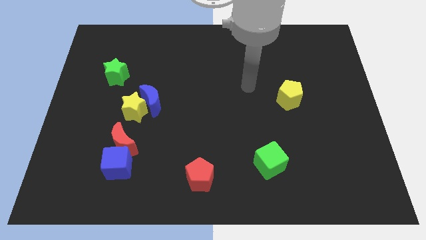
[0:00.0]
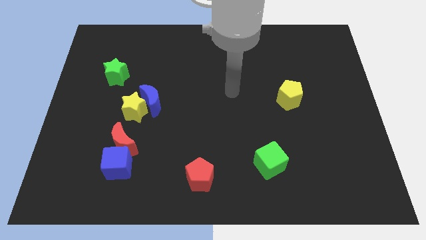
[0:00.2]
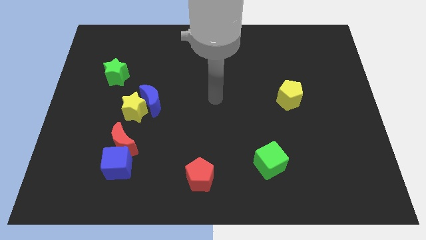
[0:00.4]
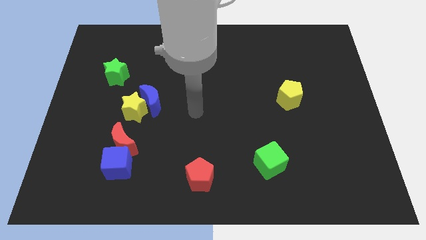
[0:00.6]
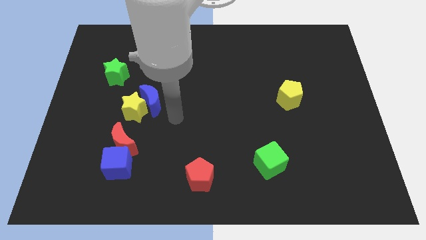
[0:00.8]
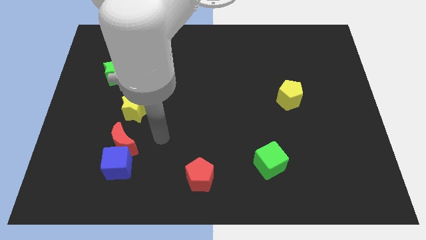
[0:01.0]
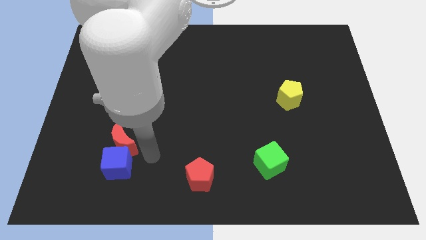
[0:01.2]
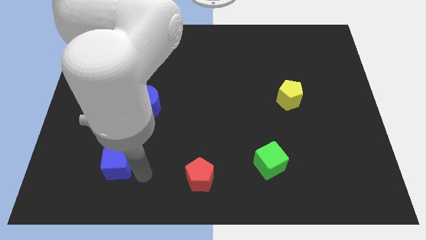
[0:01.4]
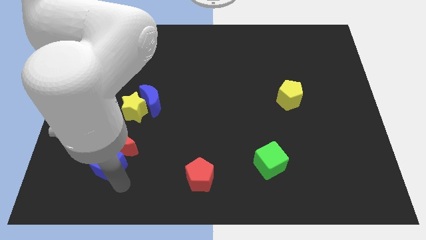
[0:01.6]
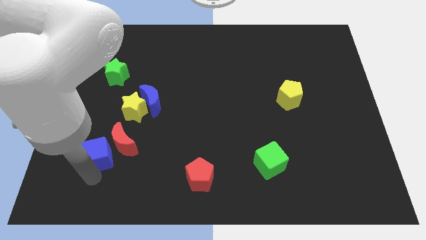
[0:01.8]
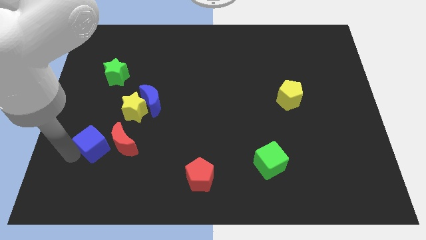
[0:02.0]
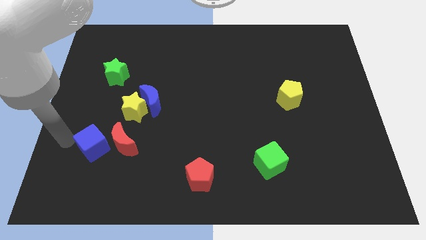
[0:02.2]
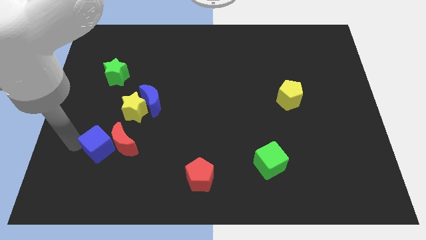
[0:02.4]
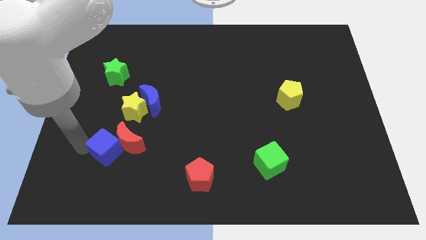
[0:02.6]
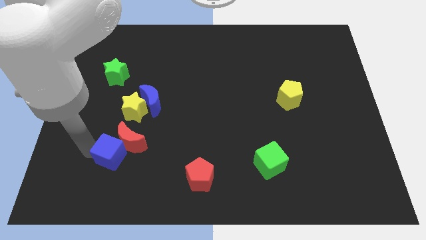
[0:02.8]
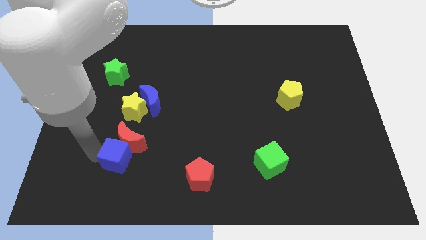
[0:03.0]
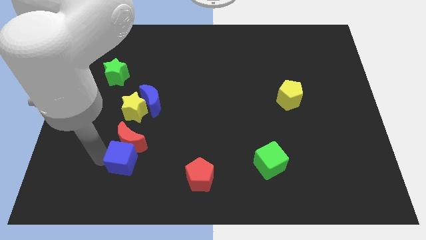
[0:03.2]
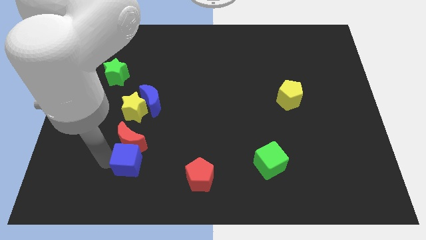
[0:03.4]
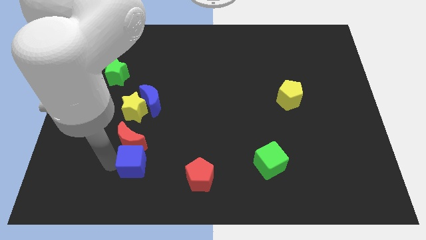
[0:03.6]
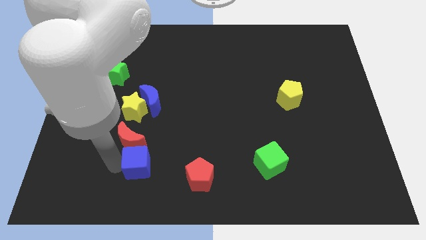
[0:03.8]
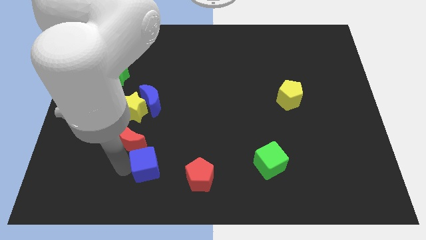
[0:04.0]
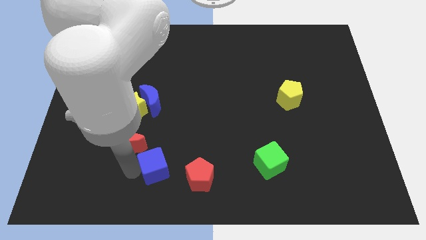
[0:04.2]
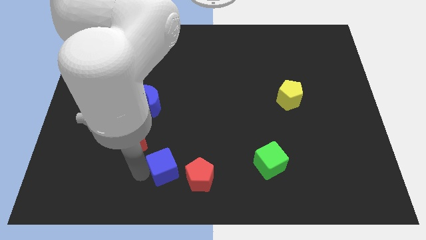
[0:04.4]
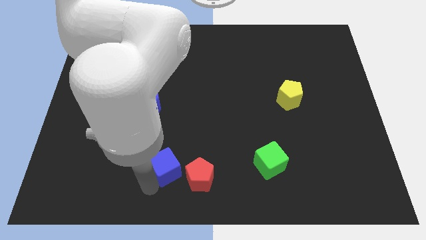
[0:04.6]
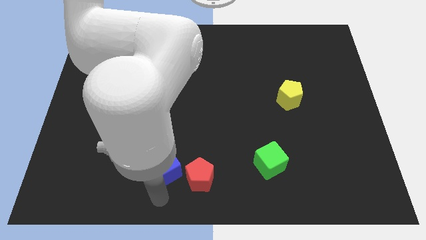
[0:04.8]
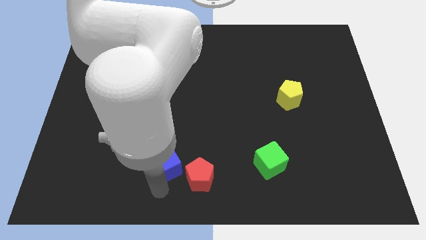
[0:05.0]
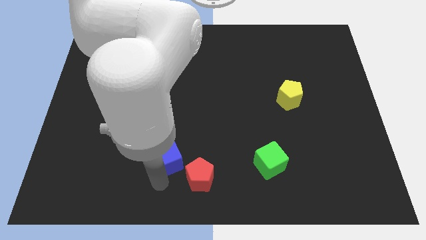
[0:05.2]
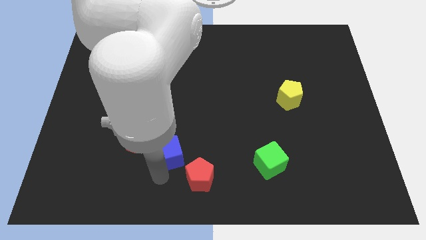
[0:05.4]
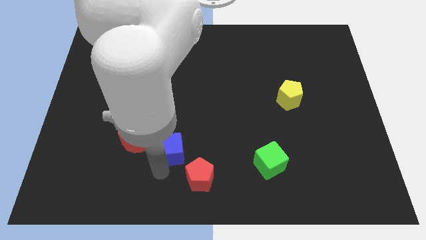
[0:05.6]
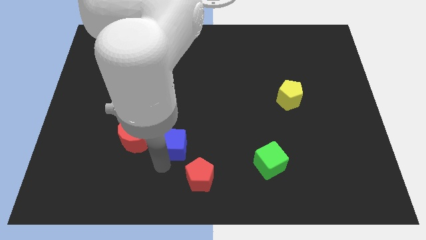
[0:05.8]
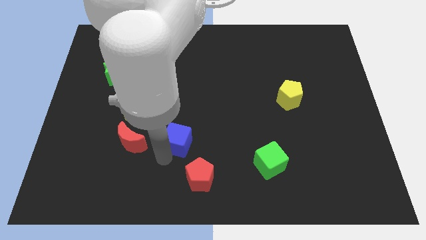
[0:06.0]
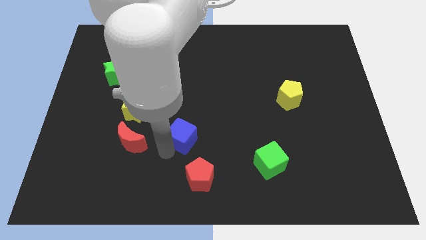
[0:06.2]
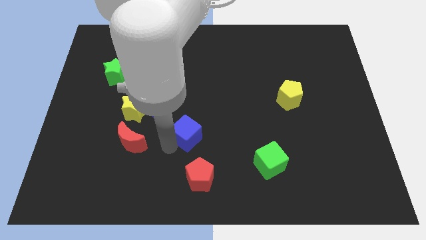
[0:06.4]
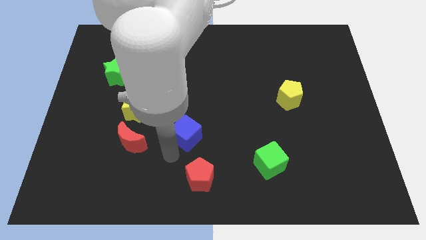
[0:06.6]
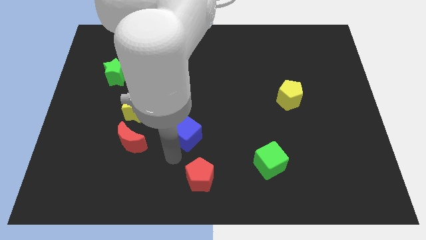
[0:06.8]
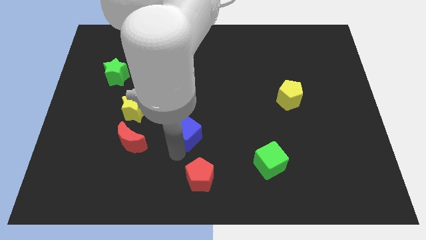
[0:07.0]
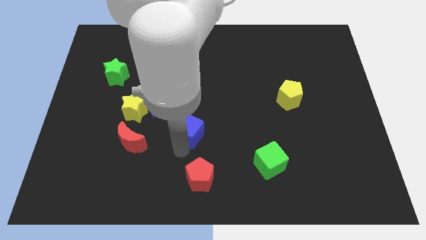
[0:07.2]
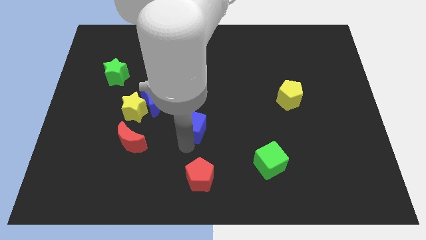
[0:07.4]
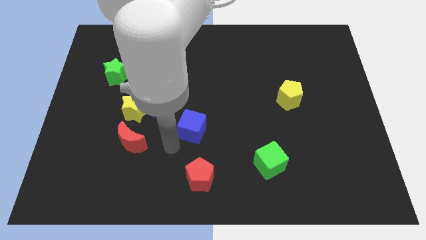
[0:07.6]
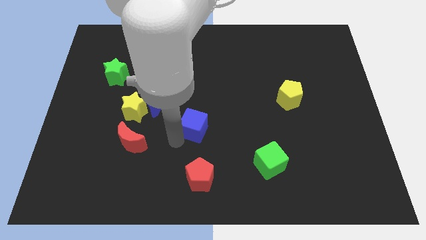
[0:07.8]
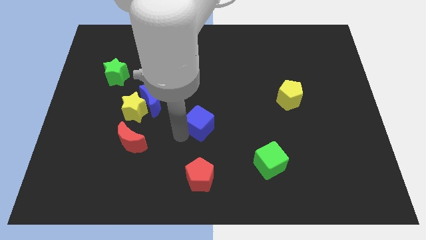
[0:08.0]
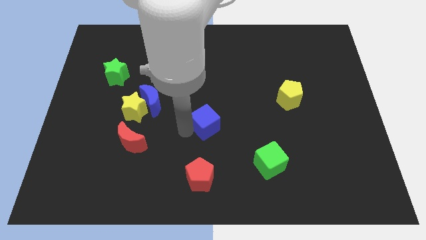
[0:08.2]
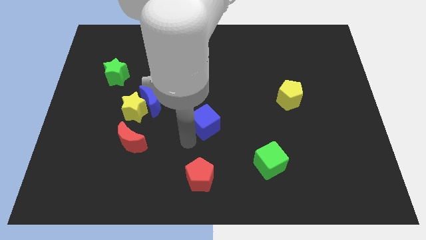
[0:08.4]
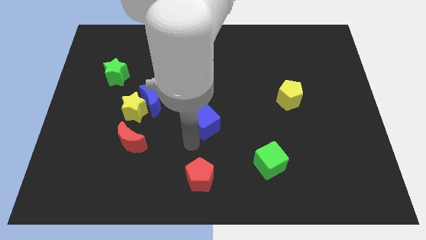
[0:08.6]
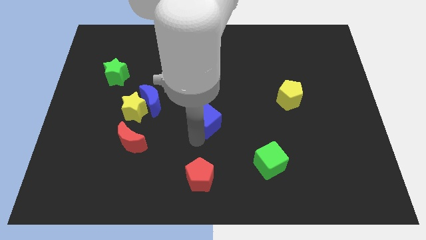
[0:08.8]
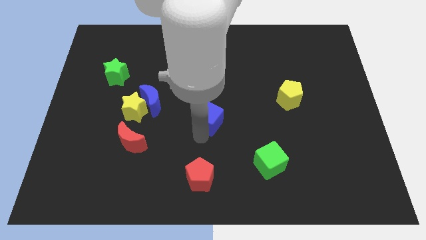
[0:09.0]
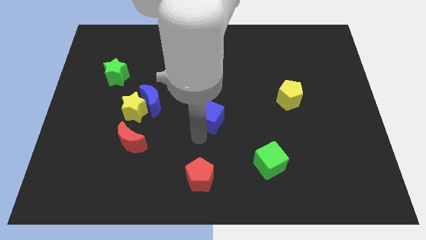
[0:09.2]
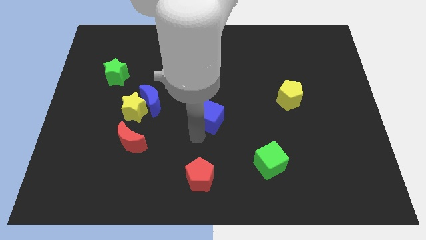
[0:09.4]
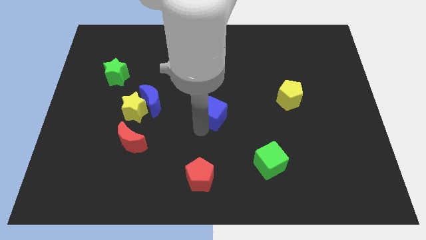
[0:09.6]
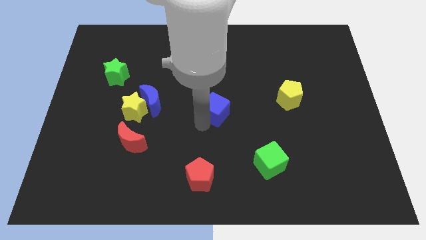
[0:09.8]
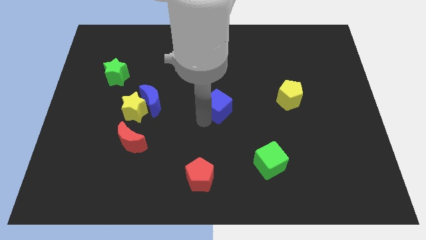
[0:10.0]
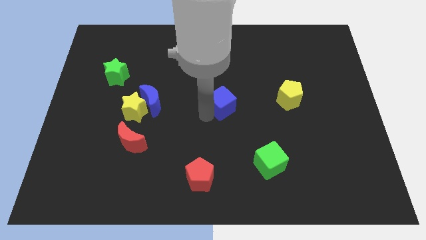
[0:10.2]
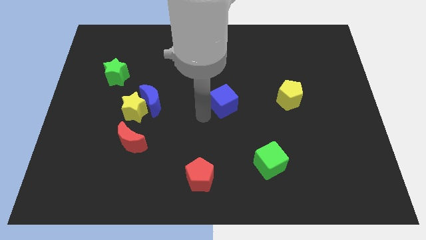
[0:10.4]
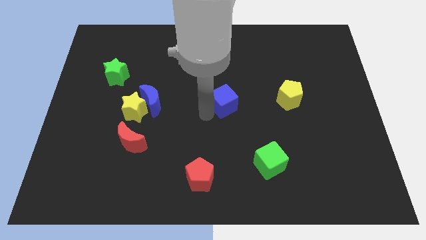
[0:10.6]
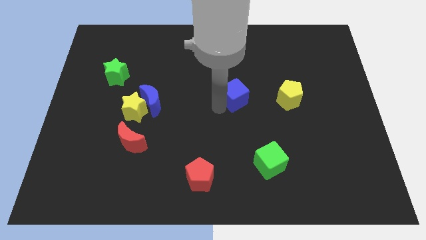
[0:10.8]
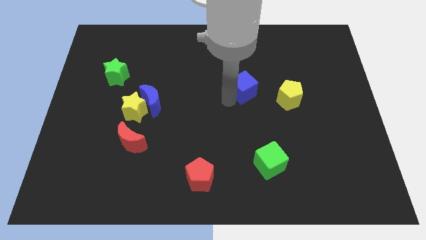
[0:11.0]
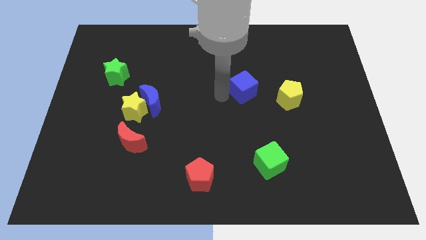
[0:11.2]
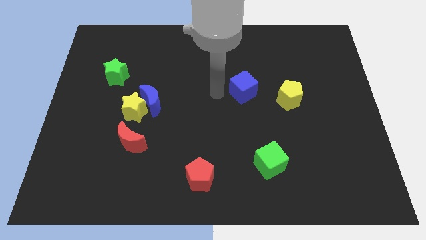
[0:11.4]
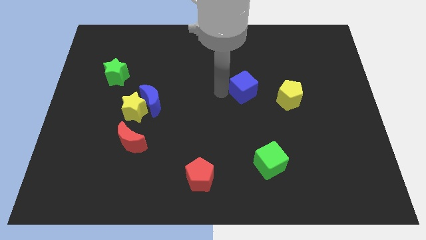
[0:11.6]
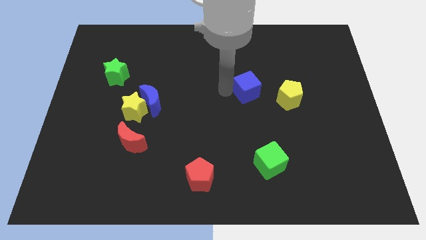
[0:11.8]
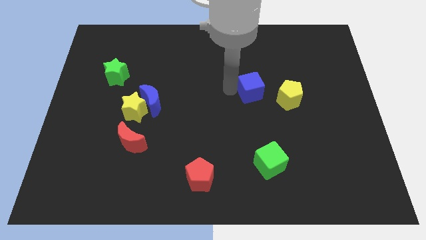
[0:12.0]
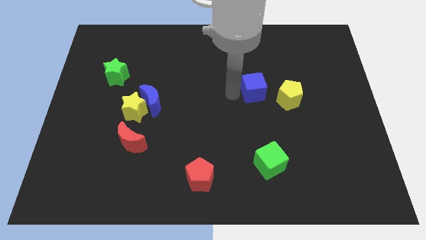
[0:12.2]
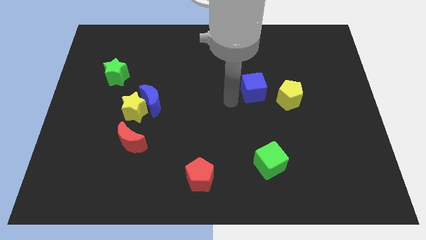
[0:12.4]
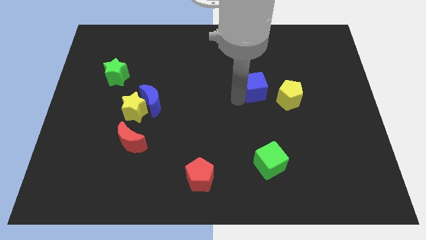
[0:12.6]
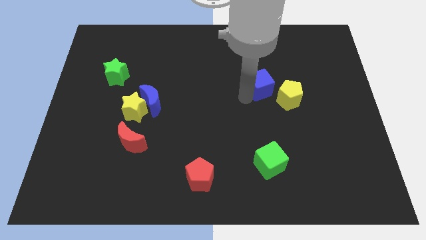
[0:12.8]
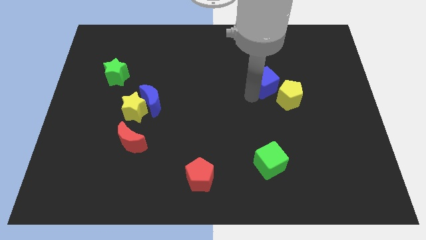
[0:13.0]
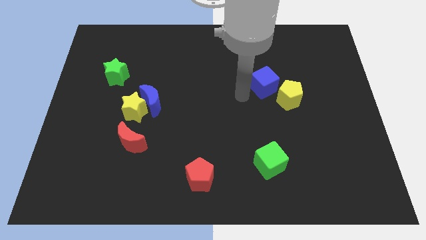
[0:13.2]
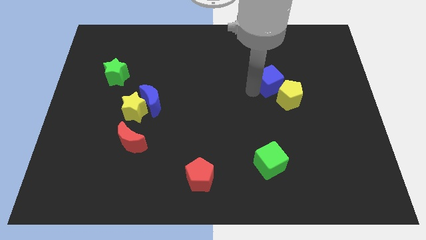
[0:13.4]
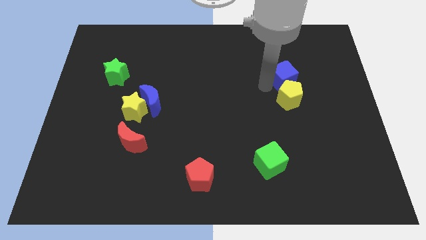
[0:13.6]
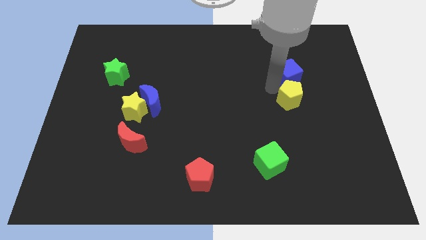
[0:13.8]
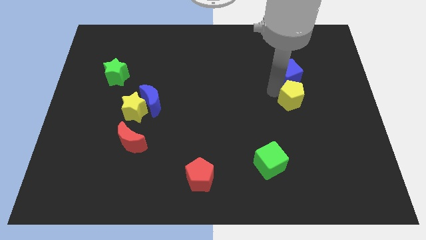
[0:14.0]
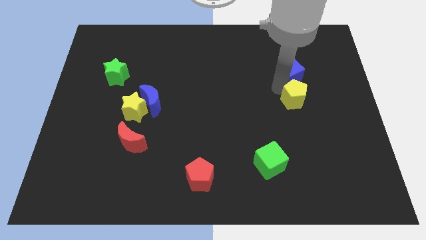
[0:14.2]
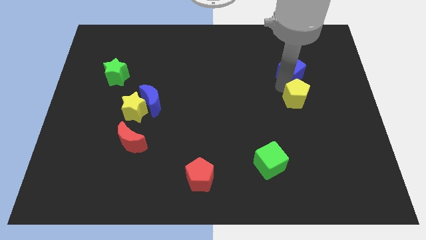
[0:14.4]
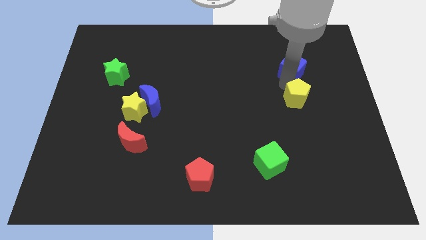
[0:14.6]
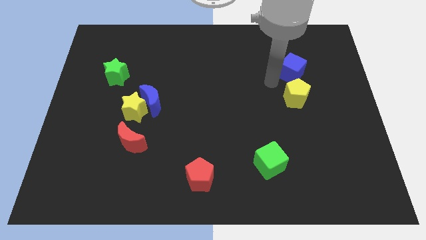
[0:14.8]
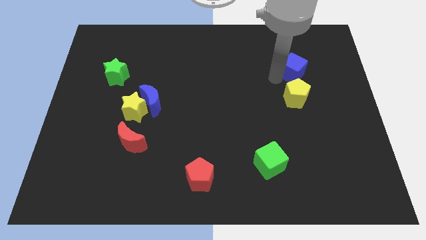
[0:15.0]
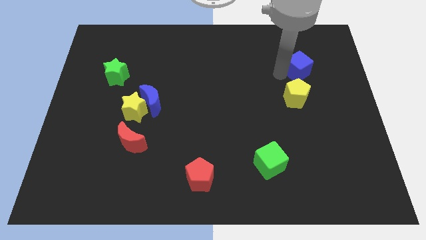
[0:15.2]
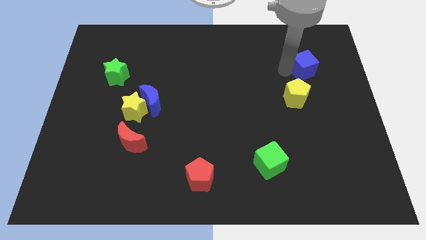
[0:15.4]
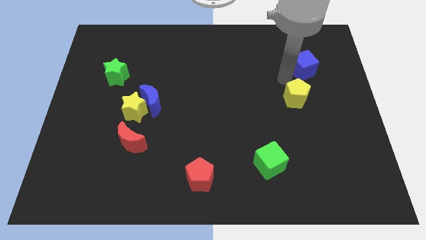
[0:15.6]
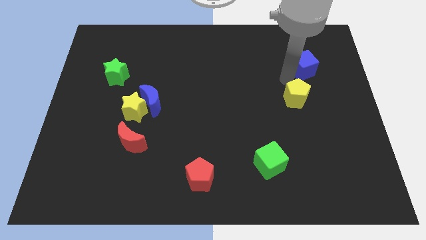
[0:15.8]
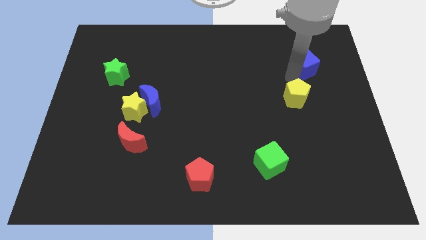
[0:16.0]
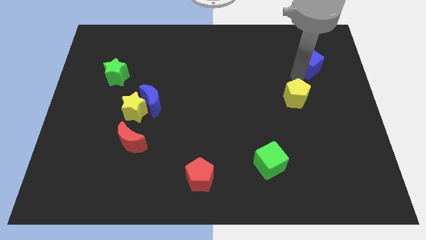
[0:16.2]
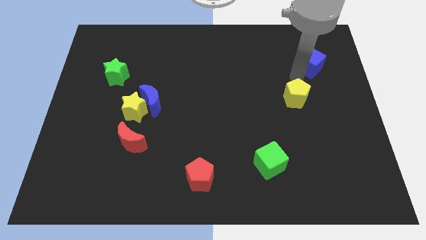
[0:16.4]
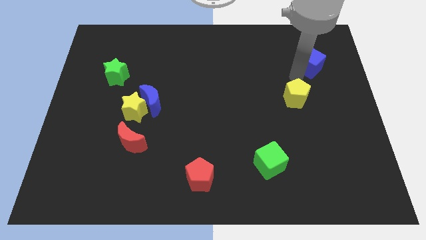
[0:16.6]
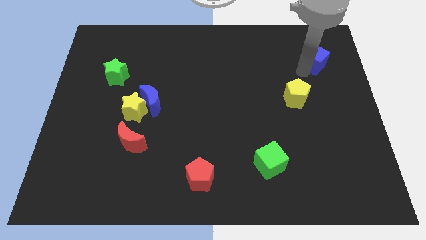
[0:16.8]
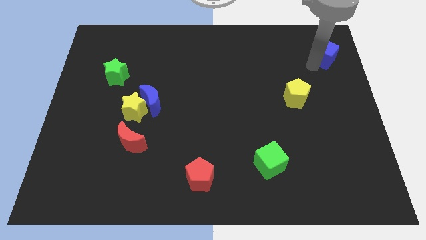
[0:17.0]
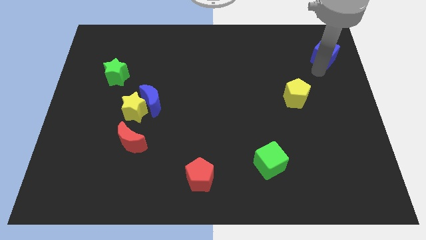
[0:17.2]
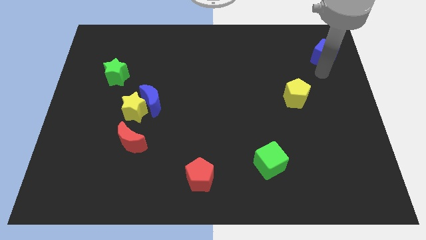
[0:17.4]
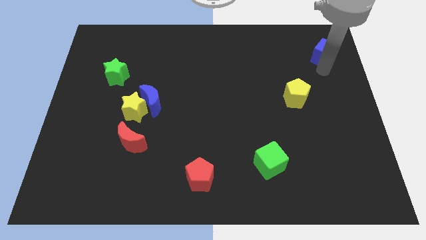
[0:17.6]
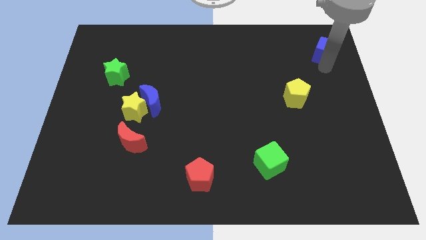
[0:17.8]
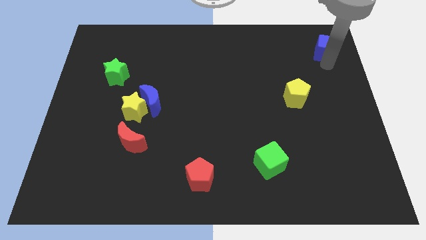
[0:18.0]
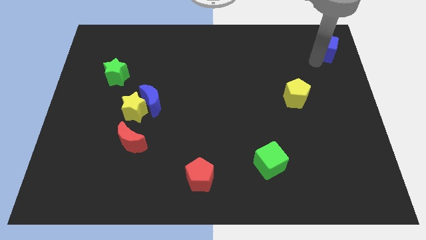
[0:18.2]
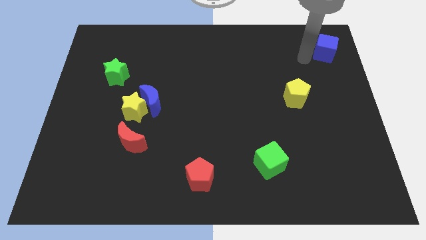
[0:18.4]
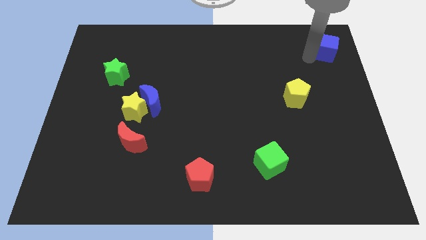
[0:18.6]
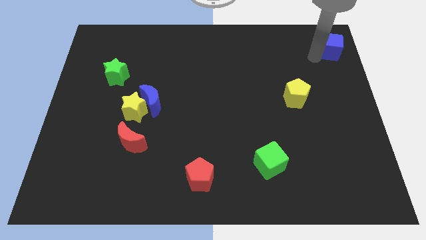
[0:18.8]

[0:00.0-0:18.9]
slide the blue cube to the upper right corner
